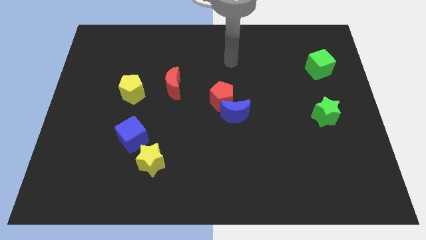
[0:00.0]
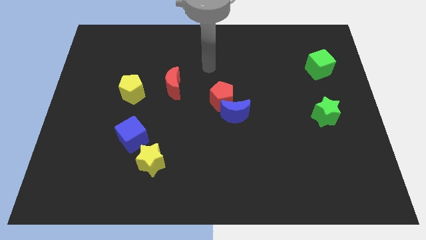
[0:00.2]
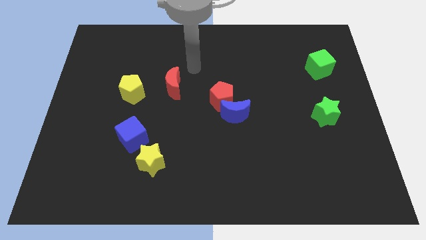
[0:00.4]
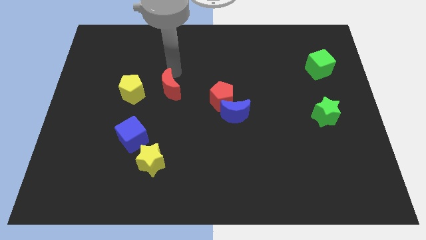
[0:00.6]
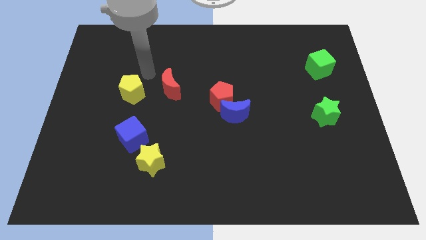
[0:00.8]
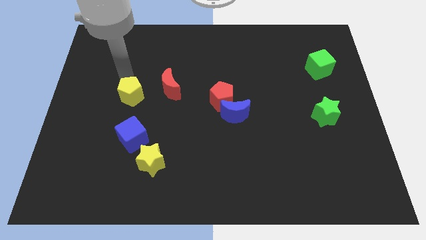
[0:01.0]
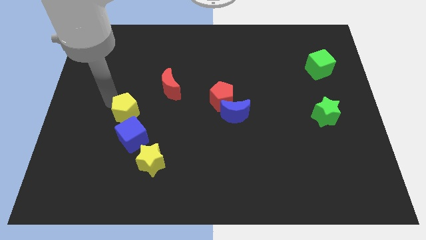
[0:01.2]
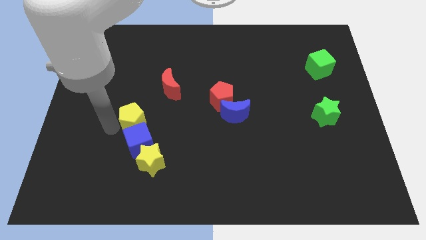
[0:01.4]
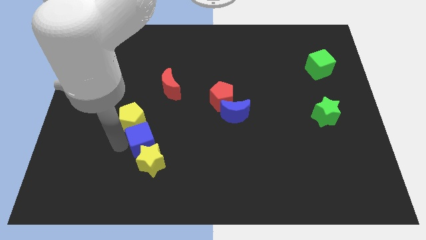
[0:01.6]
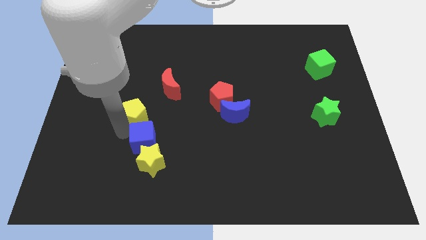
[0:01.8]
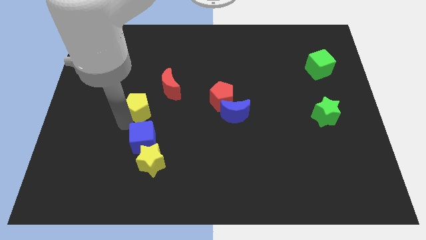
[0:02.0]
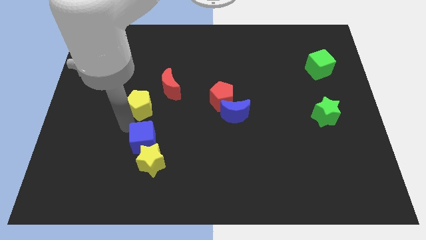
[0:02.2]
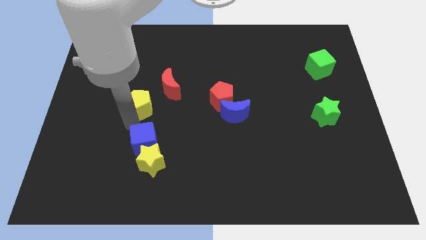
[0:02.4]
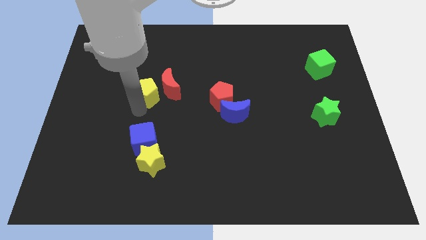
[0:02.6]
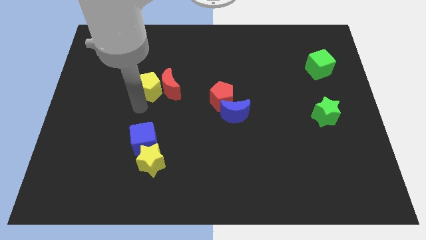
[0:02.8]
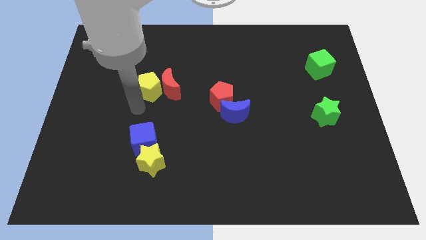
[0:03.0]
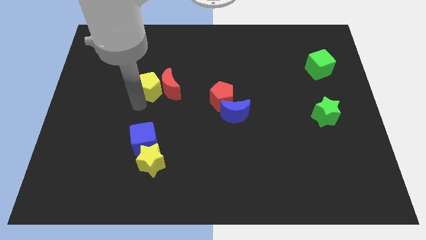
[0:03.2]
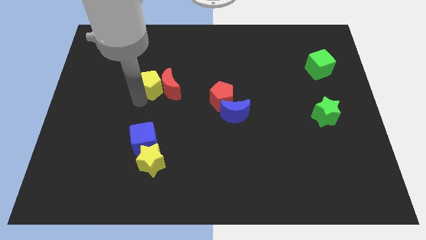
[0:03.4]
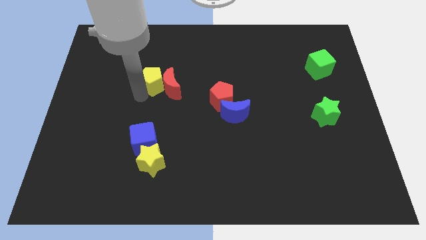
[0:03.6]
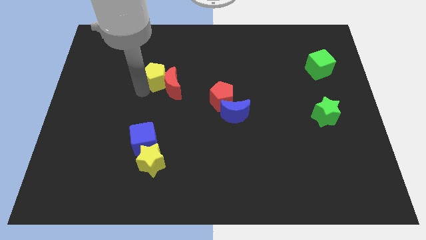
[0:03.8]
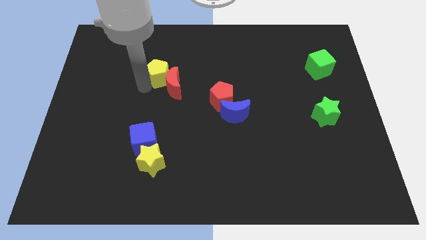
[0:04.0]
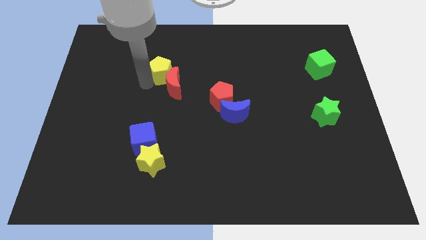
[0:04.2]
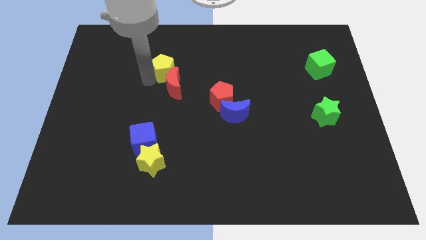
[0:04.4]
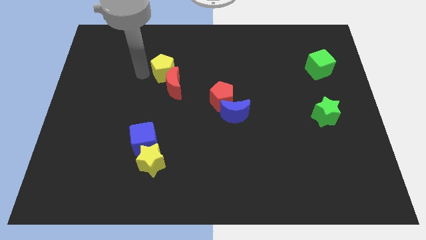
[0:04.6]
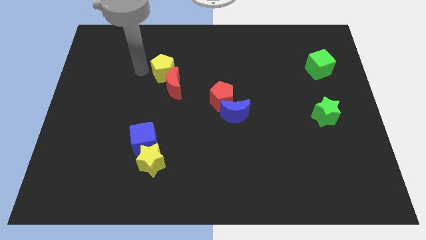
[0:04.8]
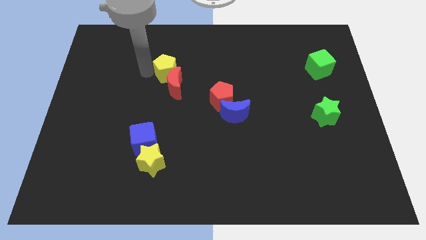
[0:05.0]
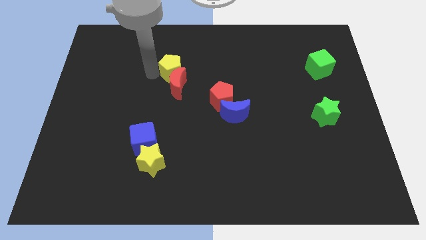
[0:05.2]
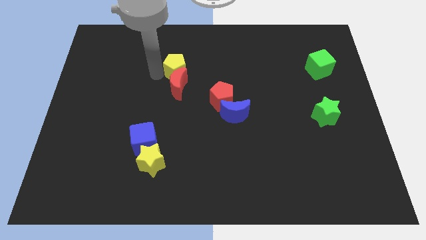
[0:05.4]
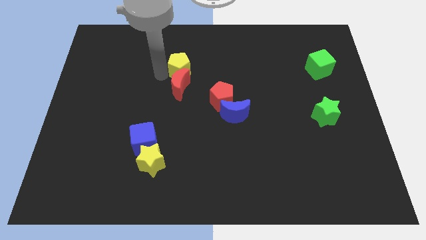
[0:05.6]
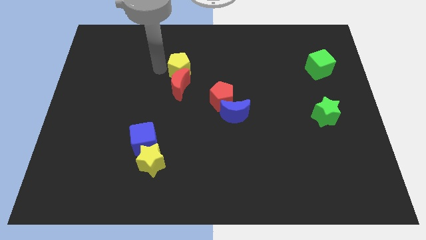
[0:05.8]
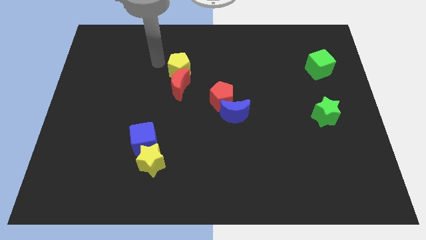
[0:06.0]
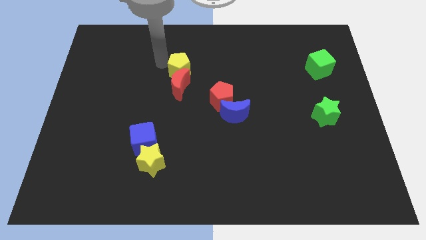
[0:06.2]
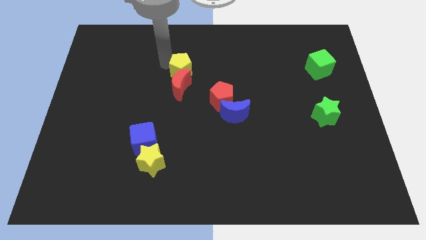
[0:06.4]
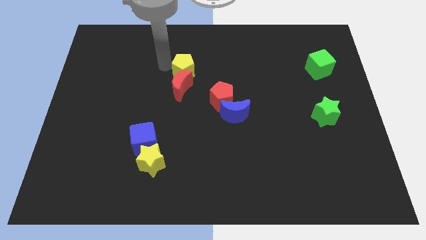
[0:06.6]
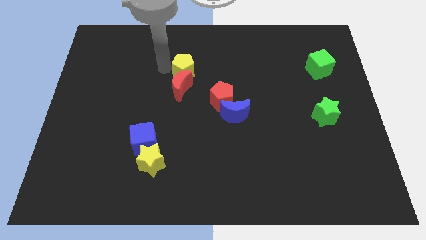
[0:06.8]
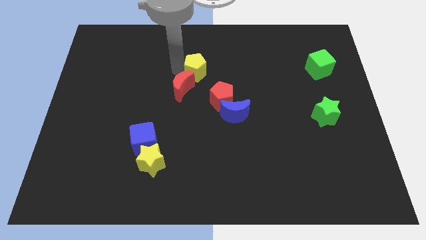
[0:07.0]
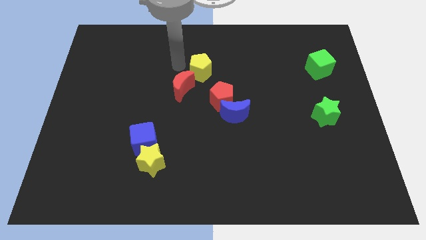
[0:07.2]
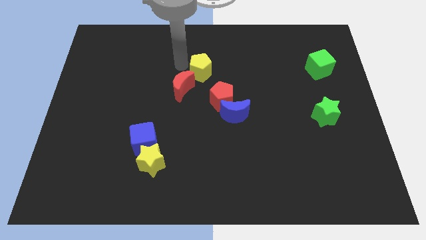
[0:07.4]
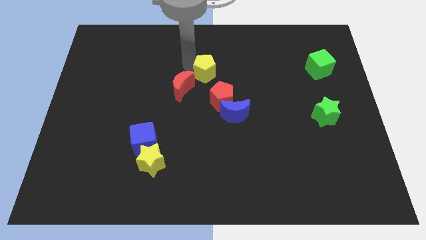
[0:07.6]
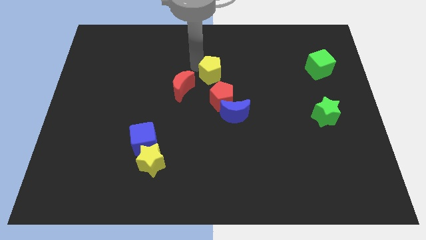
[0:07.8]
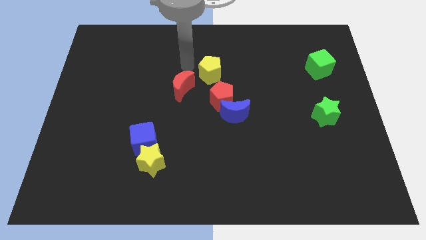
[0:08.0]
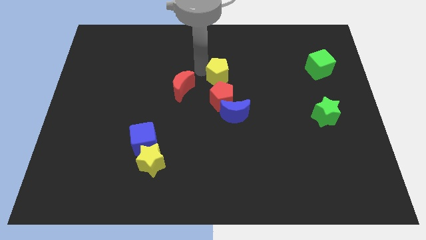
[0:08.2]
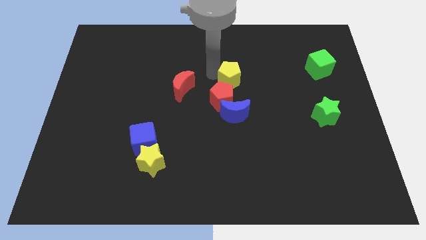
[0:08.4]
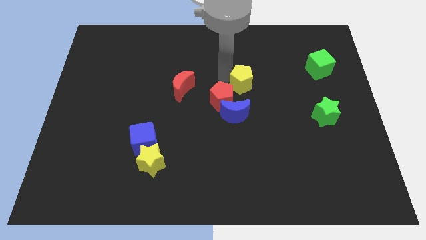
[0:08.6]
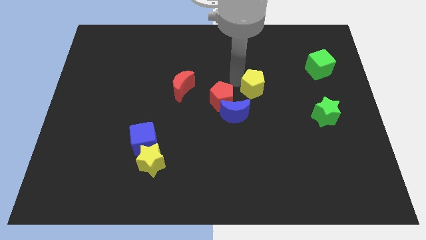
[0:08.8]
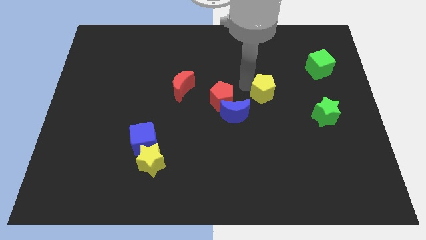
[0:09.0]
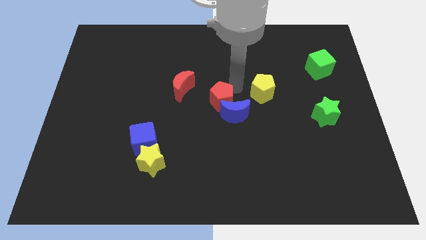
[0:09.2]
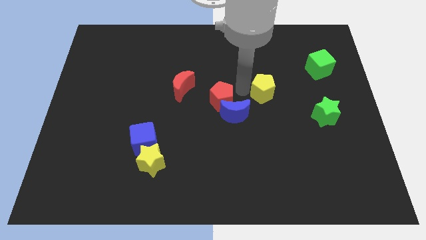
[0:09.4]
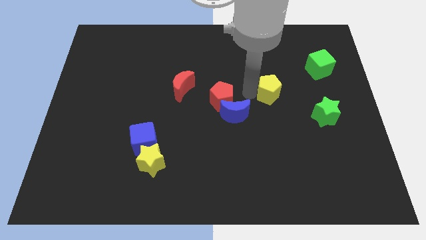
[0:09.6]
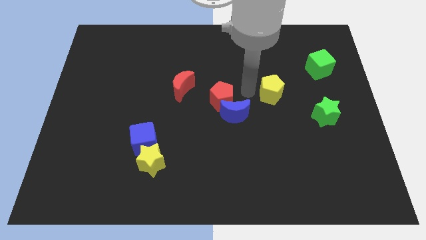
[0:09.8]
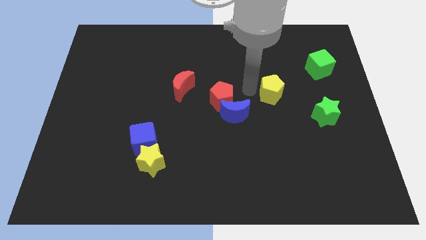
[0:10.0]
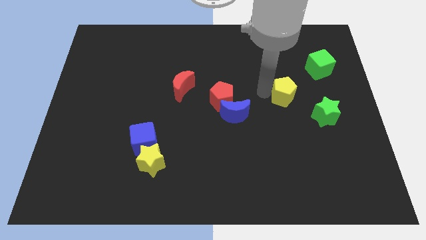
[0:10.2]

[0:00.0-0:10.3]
push the yellow pentagon to the top left side of the green star

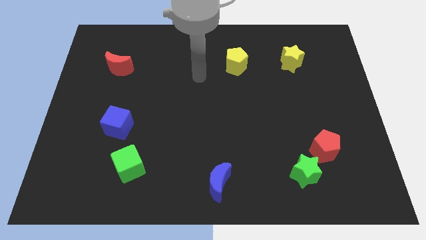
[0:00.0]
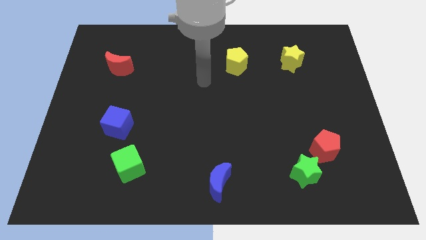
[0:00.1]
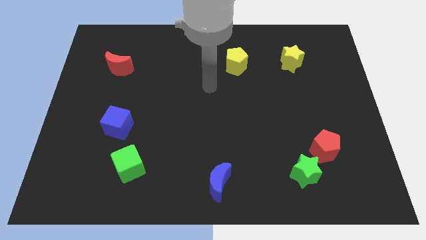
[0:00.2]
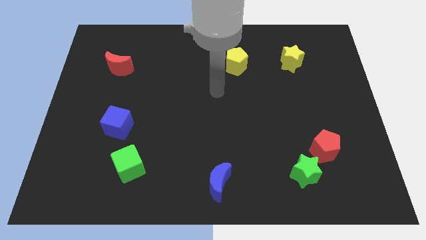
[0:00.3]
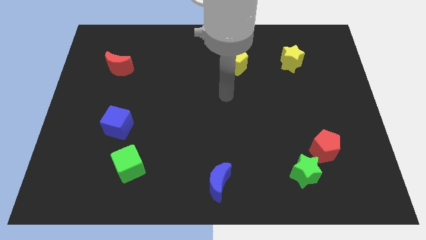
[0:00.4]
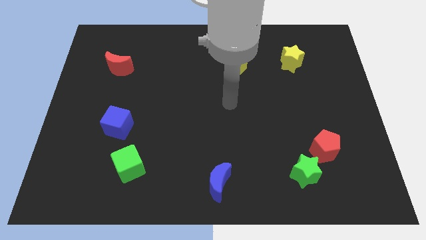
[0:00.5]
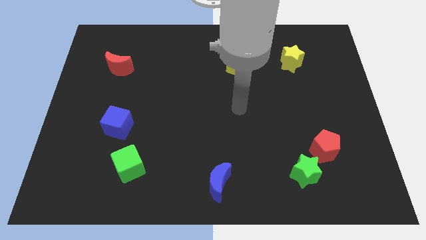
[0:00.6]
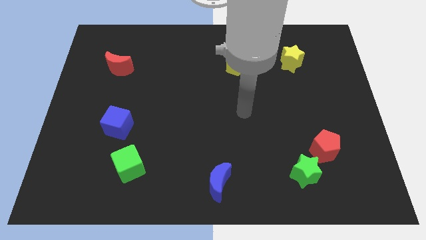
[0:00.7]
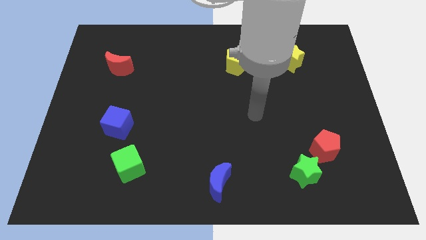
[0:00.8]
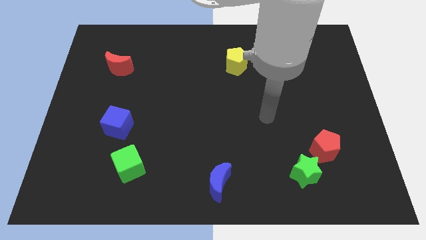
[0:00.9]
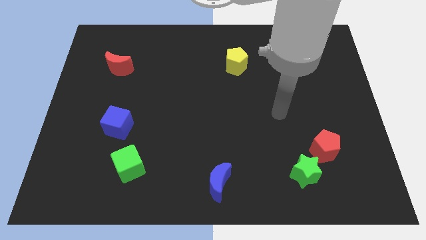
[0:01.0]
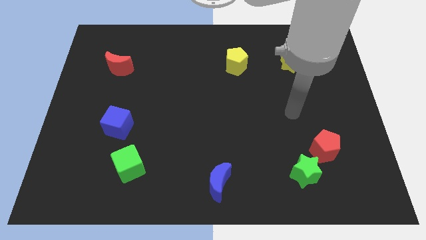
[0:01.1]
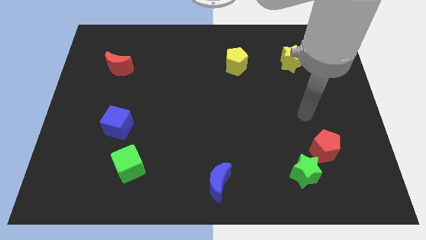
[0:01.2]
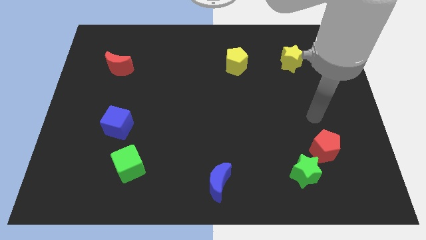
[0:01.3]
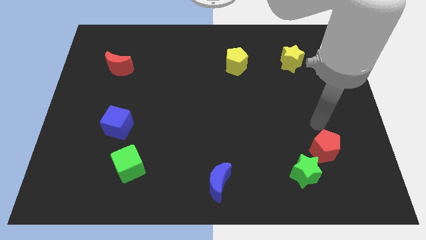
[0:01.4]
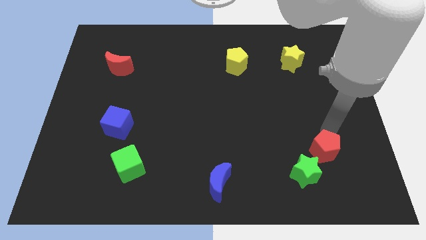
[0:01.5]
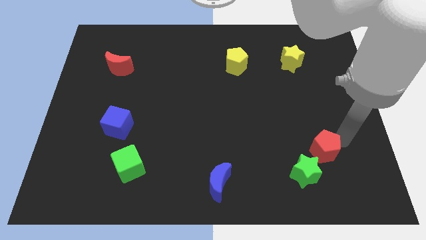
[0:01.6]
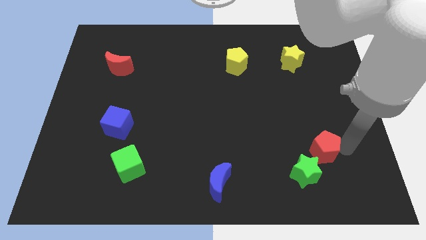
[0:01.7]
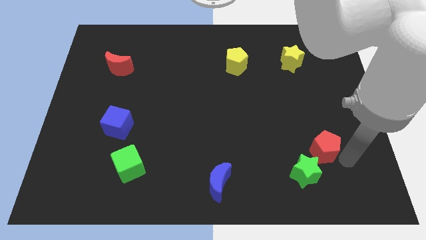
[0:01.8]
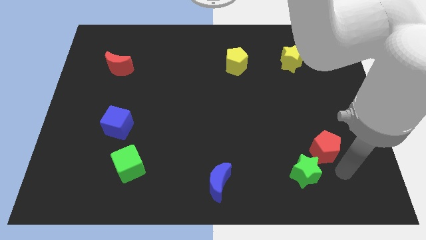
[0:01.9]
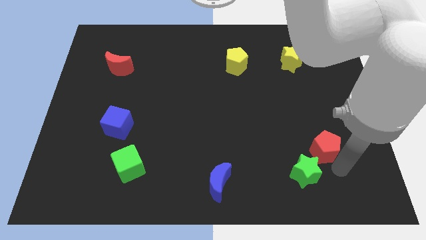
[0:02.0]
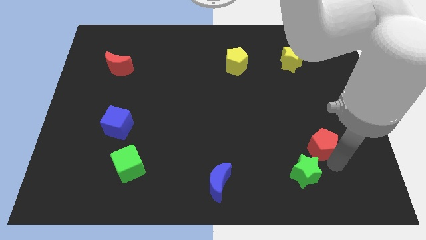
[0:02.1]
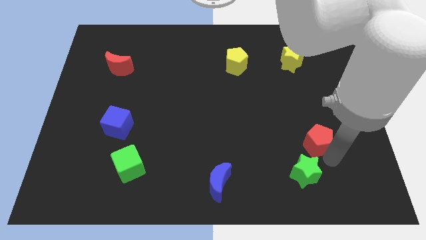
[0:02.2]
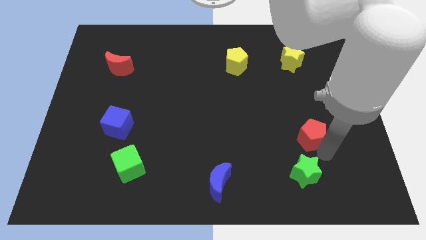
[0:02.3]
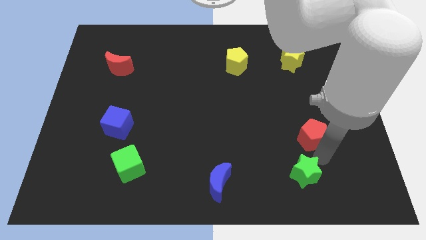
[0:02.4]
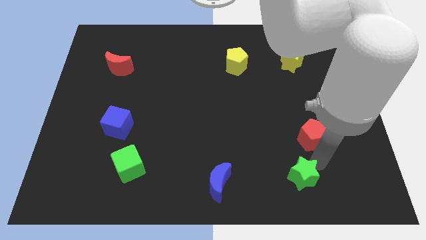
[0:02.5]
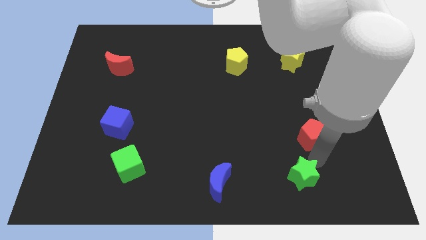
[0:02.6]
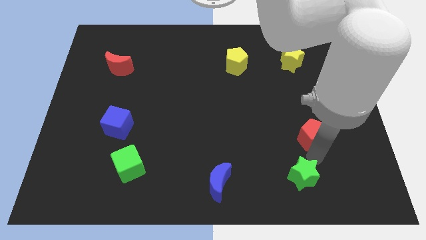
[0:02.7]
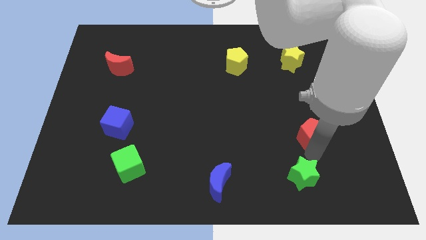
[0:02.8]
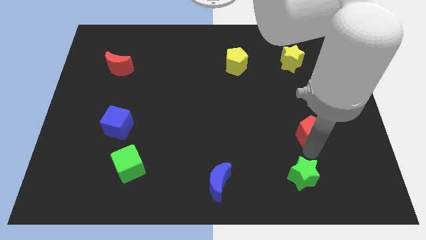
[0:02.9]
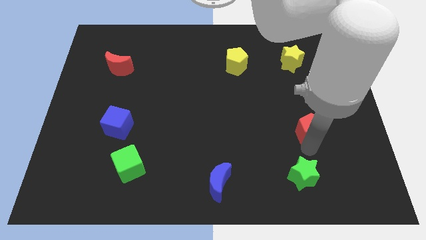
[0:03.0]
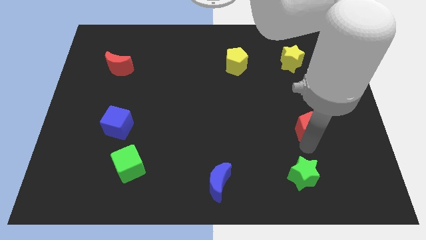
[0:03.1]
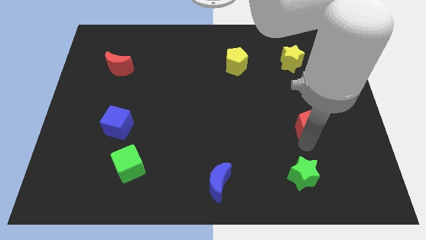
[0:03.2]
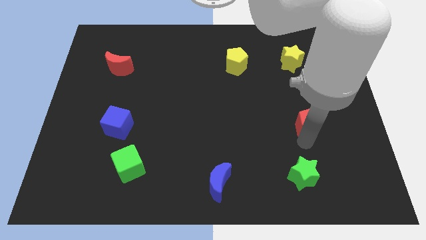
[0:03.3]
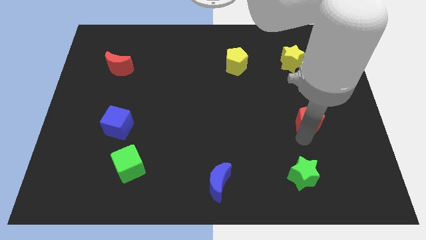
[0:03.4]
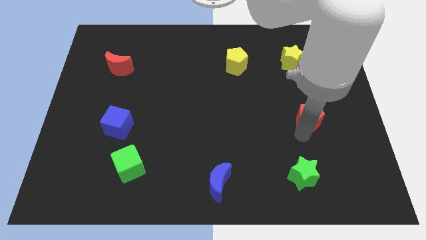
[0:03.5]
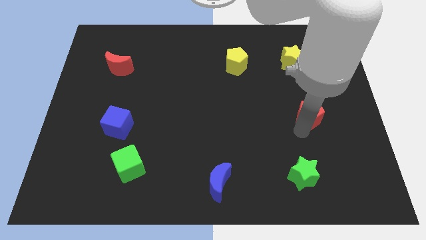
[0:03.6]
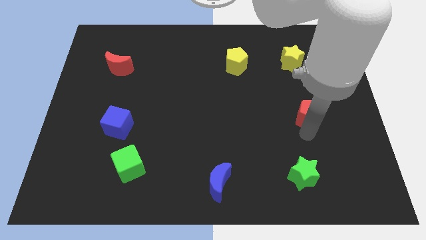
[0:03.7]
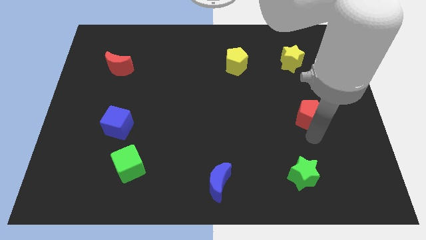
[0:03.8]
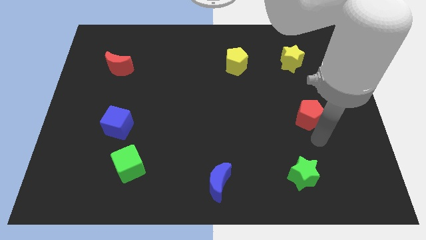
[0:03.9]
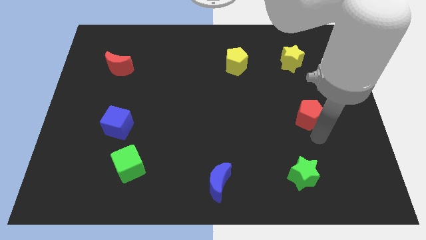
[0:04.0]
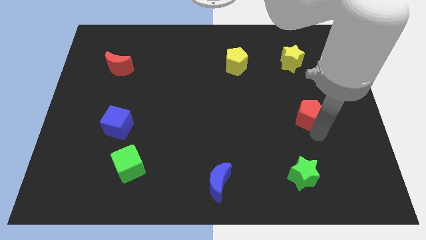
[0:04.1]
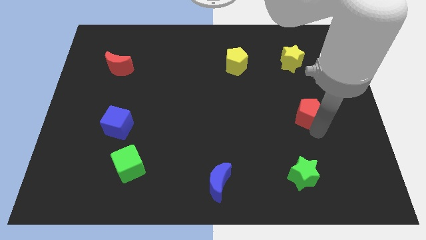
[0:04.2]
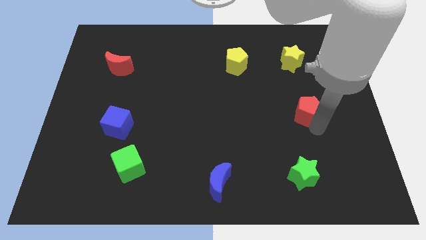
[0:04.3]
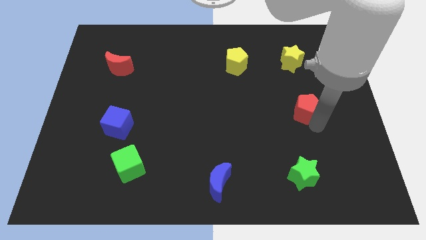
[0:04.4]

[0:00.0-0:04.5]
push the red pentagon below the yellow star
